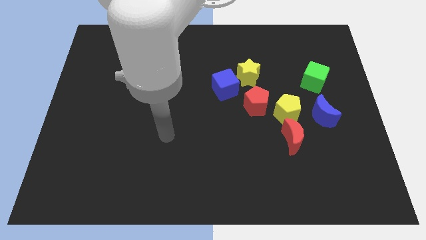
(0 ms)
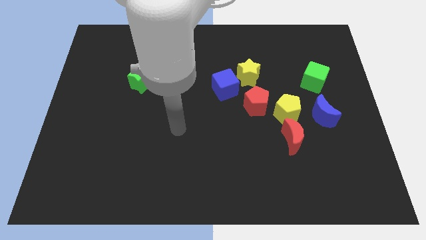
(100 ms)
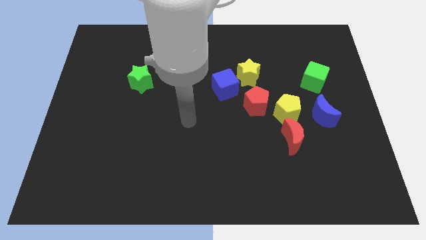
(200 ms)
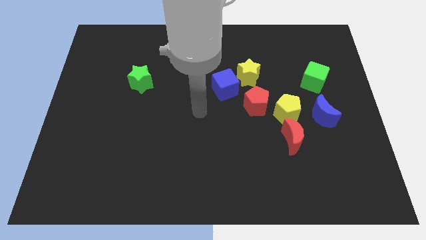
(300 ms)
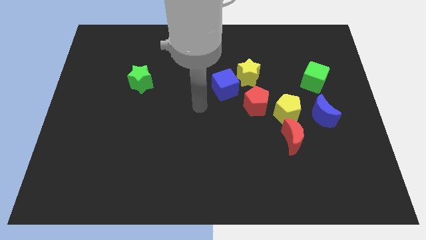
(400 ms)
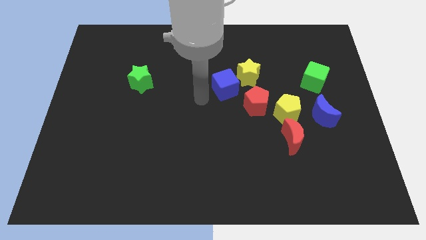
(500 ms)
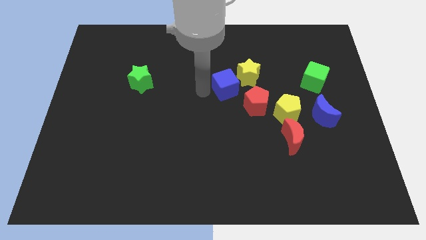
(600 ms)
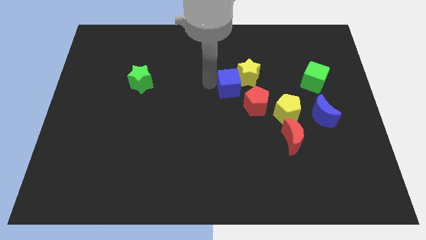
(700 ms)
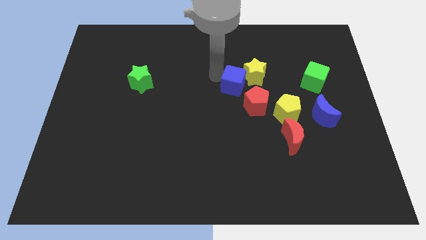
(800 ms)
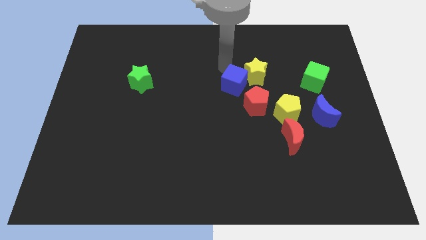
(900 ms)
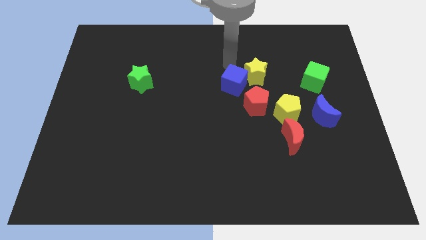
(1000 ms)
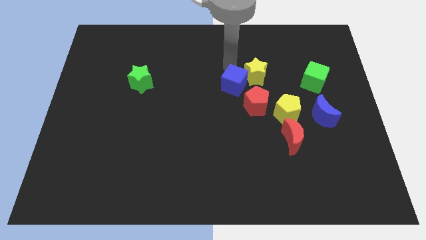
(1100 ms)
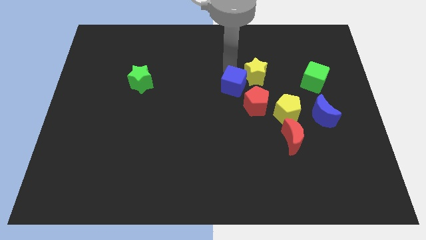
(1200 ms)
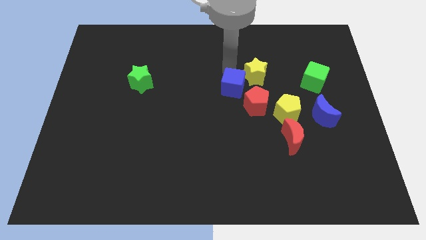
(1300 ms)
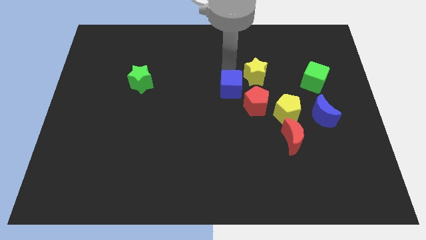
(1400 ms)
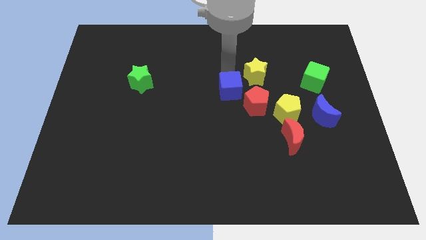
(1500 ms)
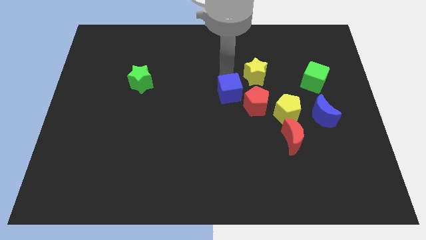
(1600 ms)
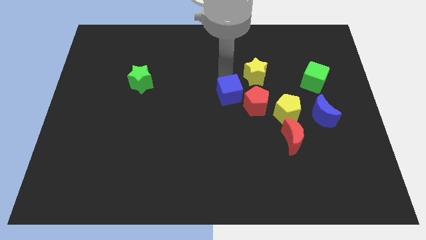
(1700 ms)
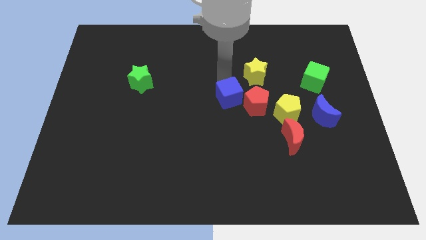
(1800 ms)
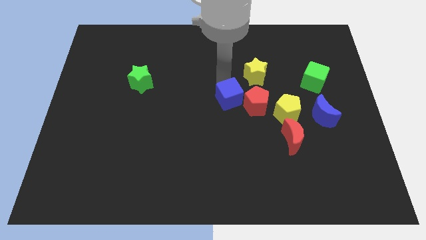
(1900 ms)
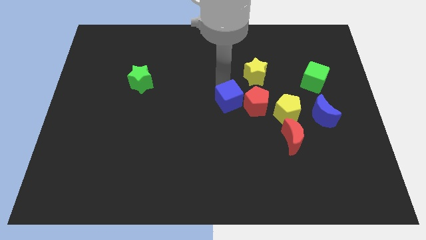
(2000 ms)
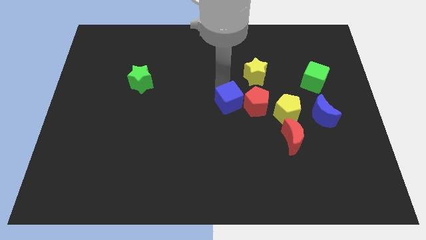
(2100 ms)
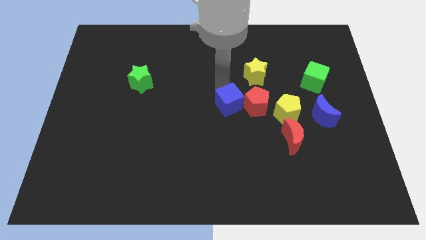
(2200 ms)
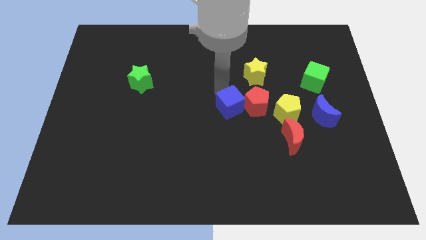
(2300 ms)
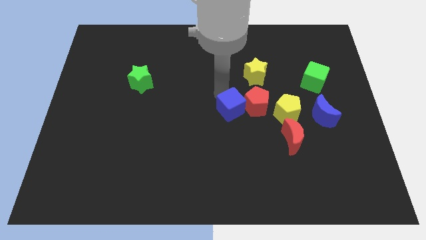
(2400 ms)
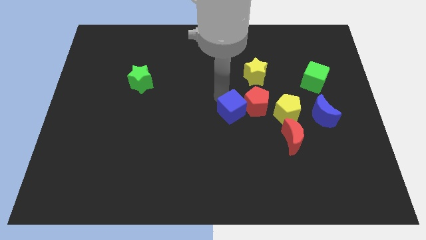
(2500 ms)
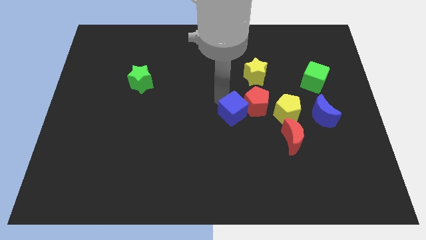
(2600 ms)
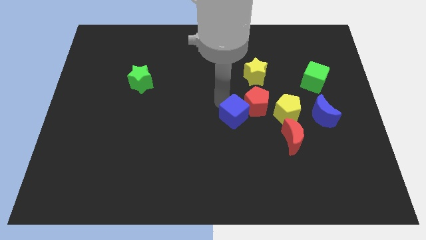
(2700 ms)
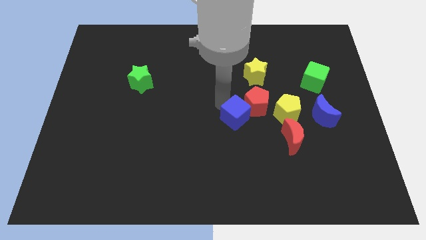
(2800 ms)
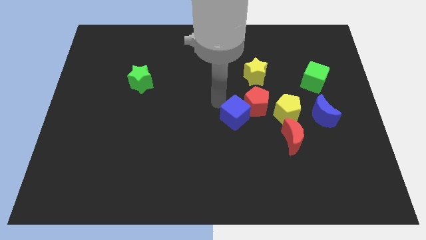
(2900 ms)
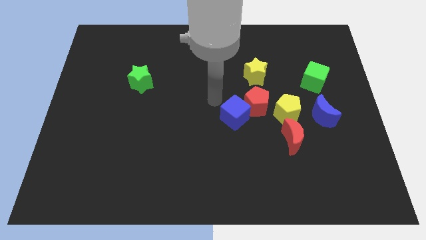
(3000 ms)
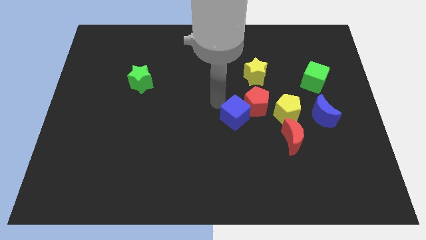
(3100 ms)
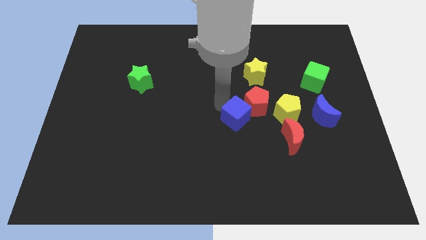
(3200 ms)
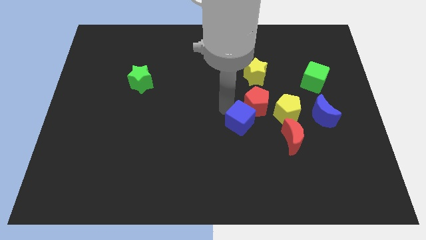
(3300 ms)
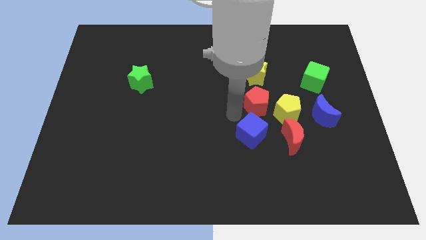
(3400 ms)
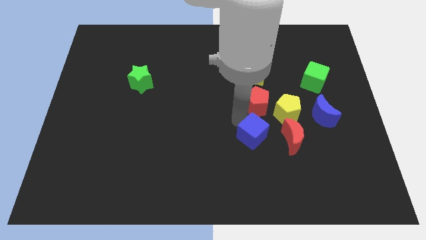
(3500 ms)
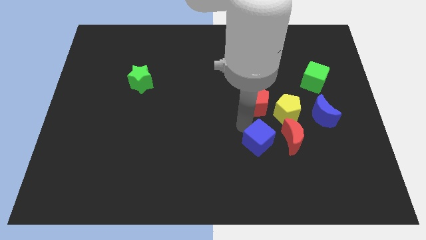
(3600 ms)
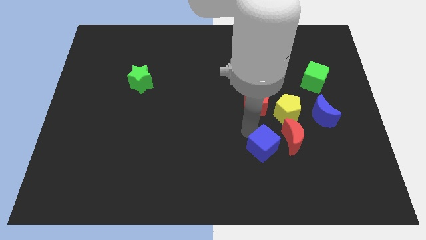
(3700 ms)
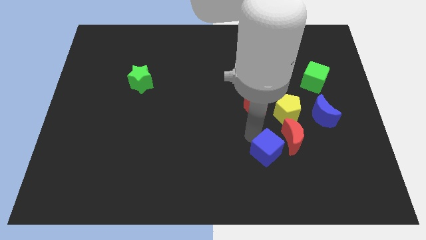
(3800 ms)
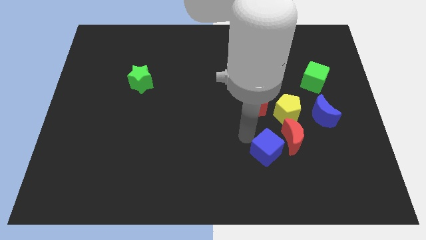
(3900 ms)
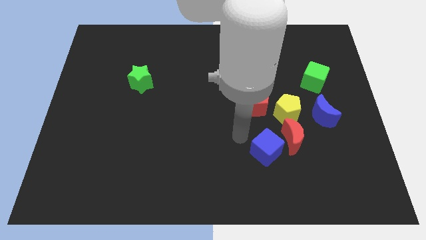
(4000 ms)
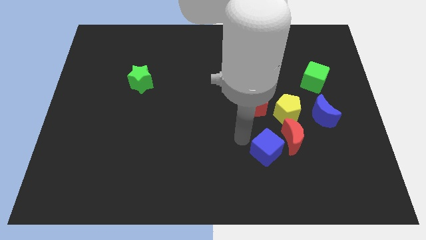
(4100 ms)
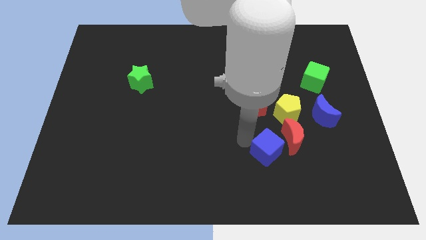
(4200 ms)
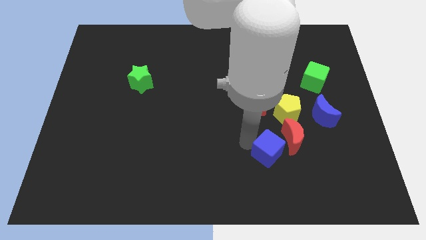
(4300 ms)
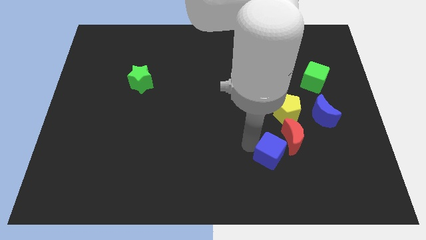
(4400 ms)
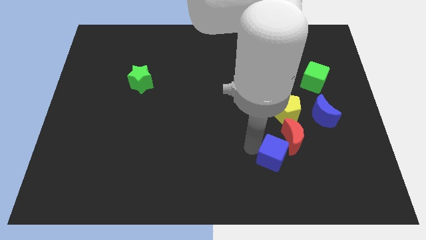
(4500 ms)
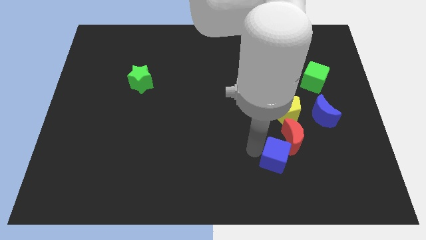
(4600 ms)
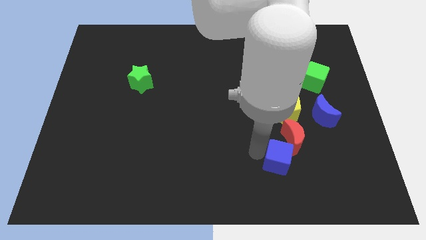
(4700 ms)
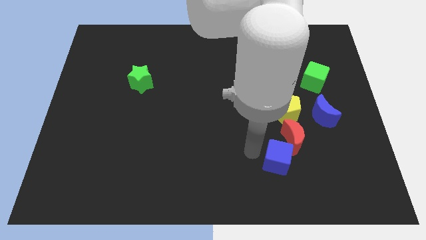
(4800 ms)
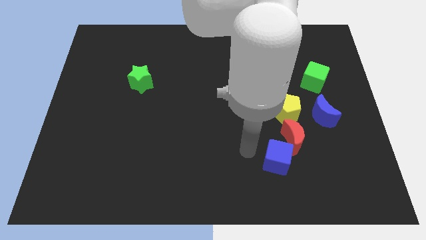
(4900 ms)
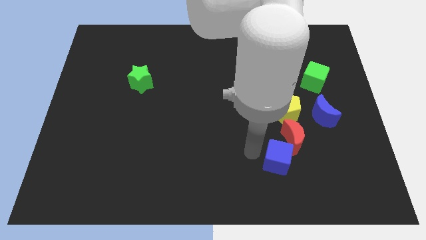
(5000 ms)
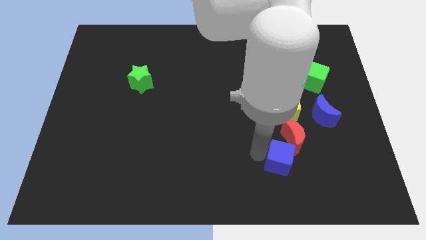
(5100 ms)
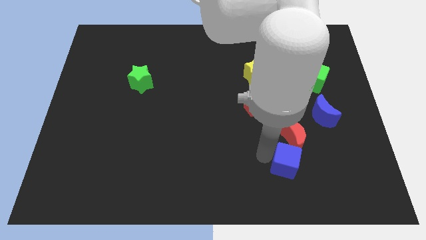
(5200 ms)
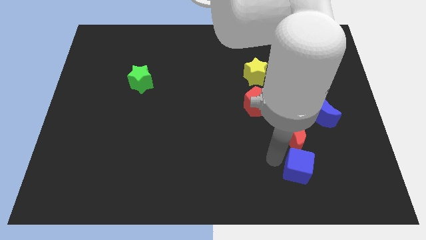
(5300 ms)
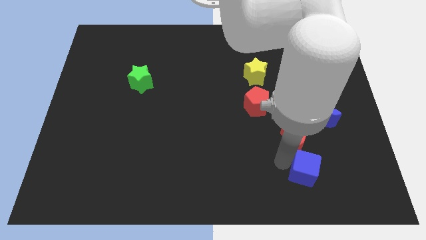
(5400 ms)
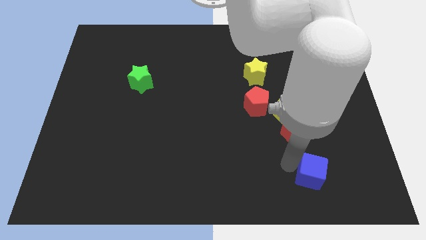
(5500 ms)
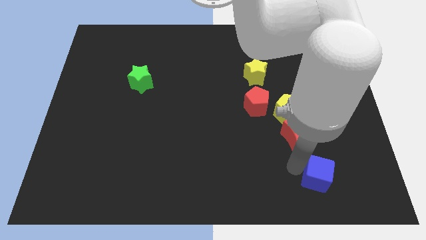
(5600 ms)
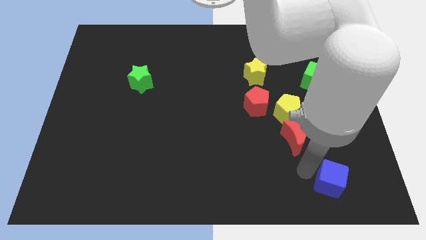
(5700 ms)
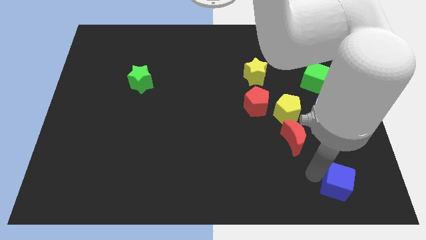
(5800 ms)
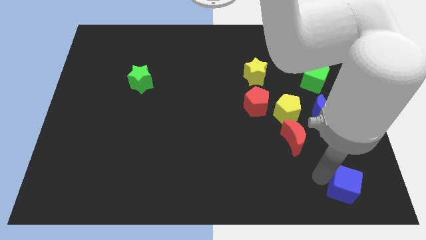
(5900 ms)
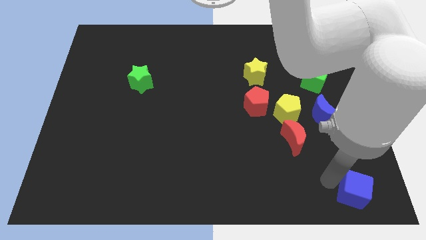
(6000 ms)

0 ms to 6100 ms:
put the blue cube to the bottom right of the board
